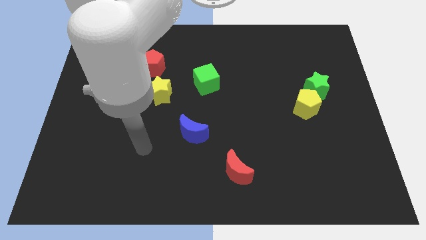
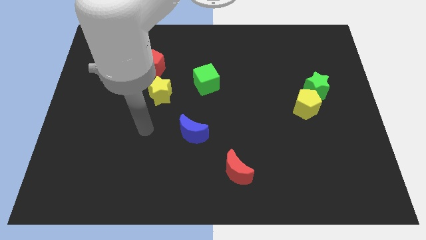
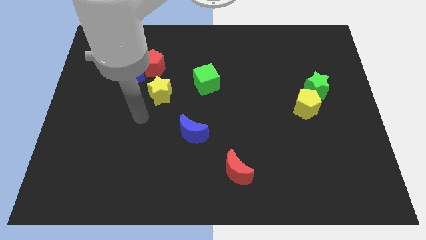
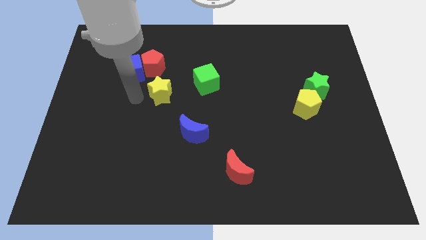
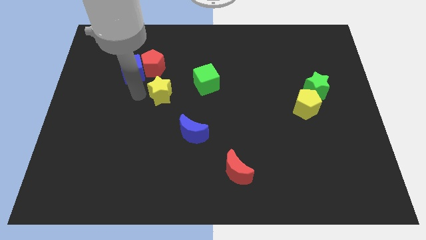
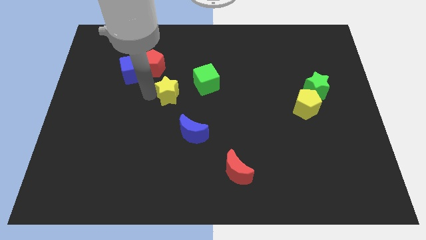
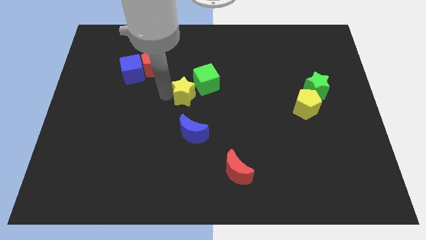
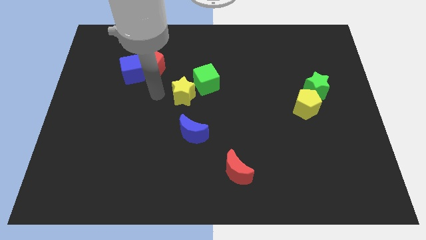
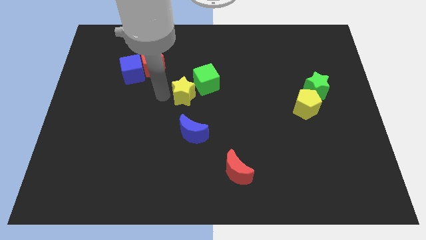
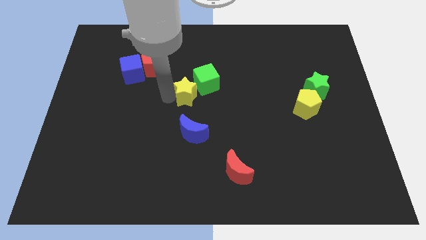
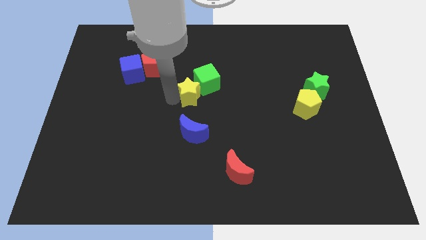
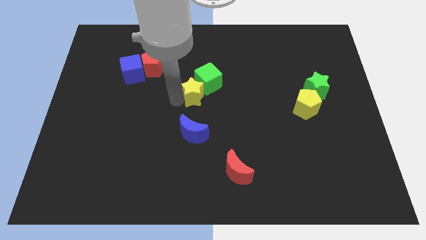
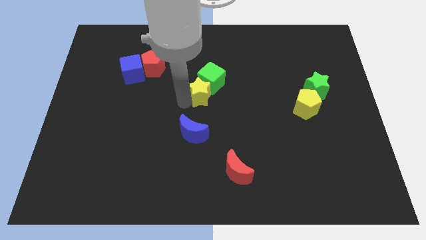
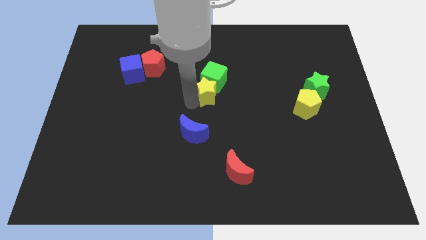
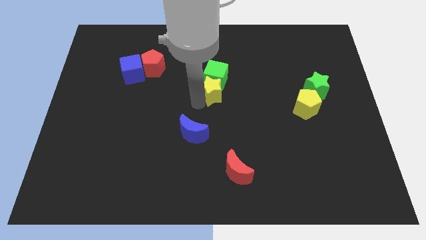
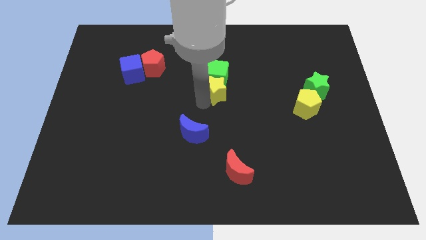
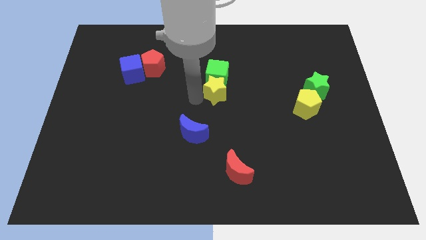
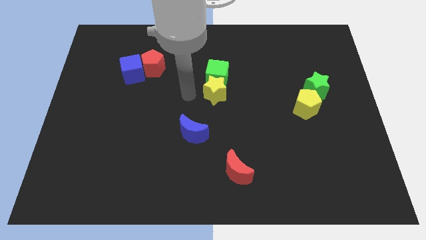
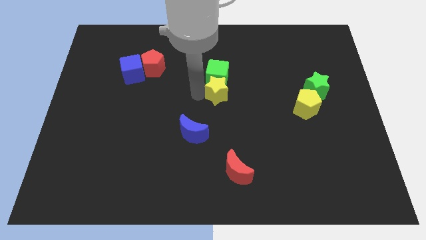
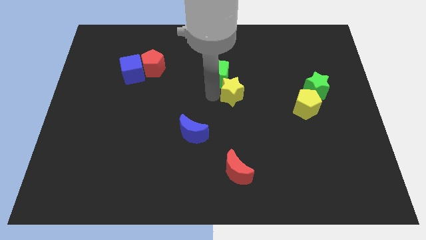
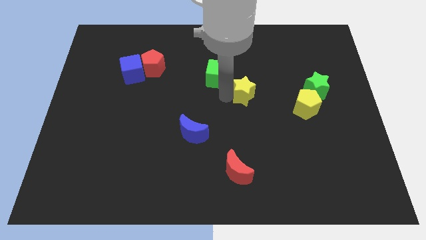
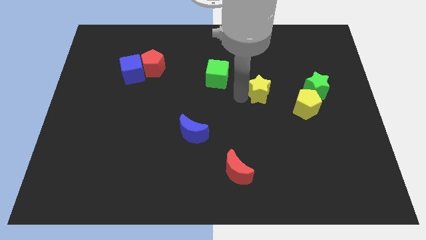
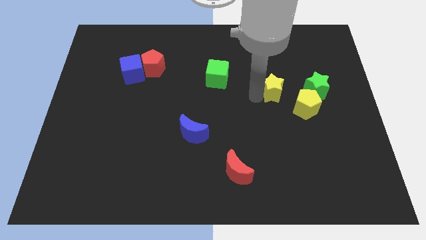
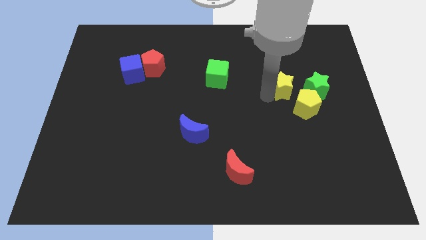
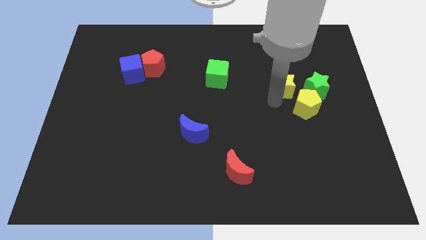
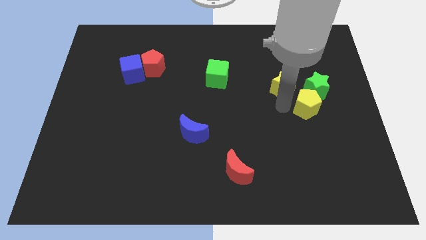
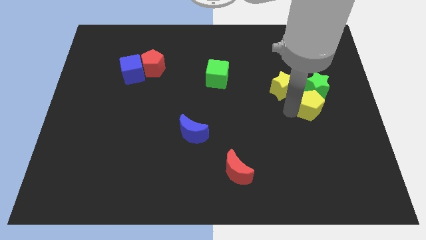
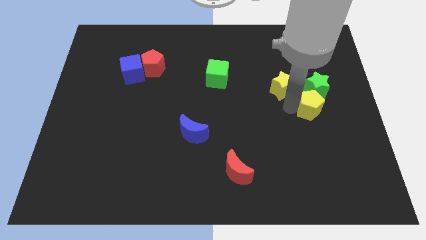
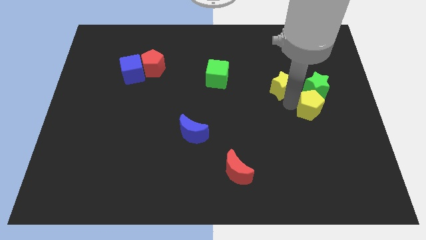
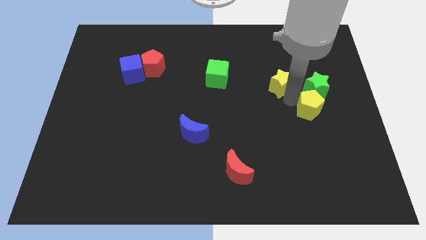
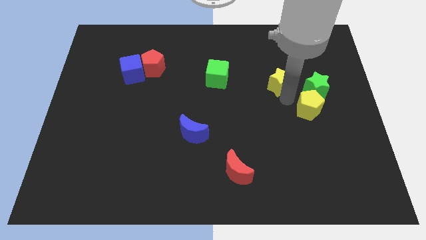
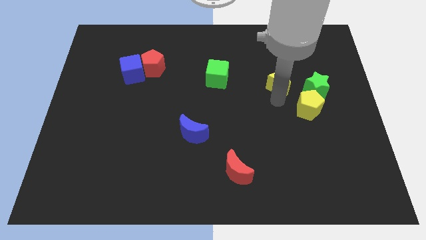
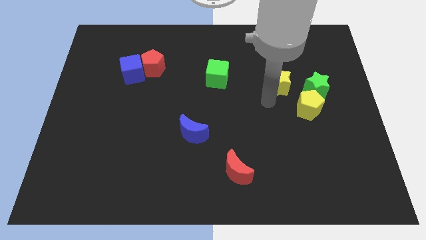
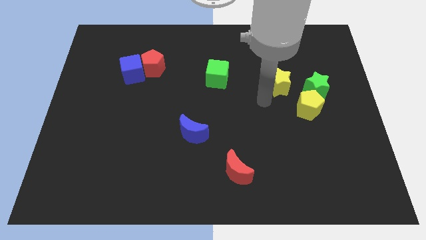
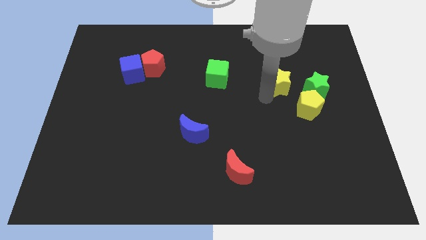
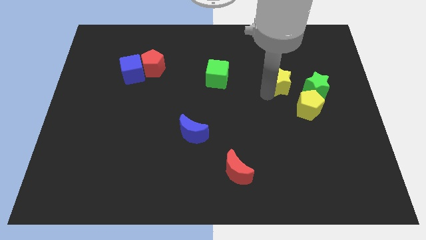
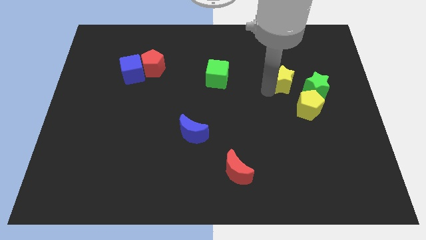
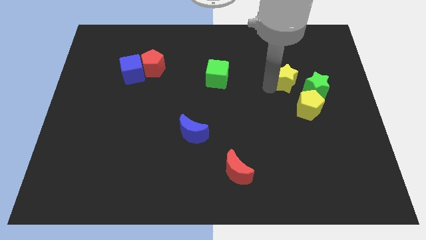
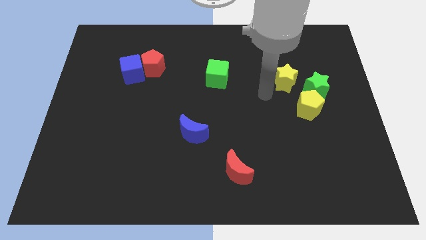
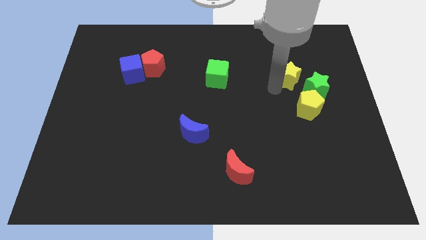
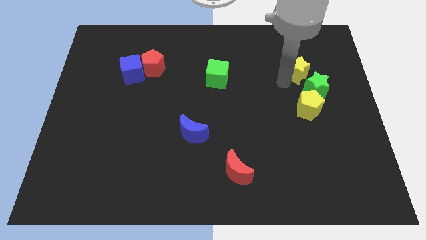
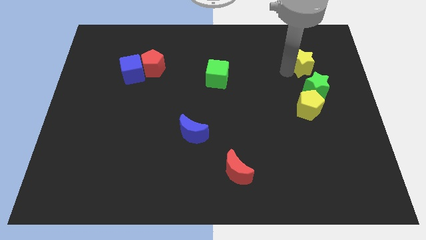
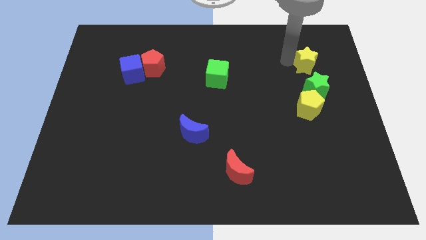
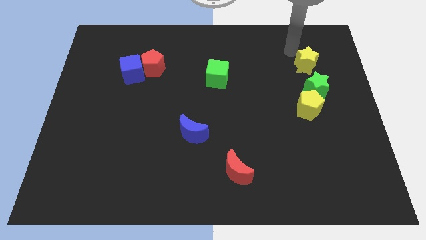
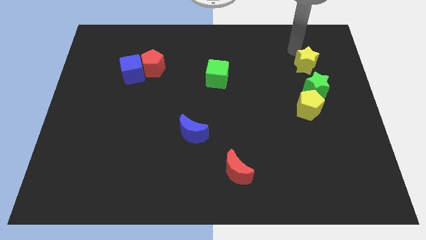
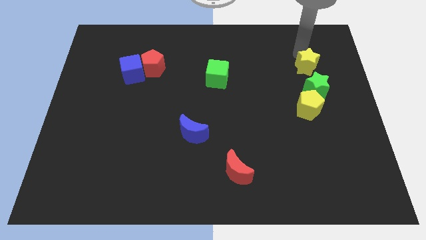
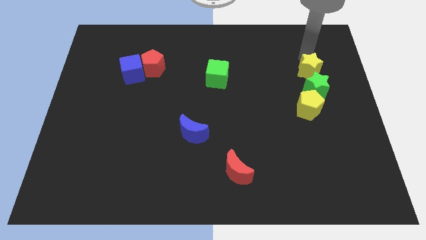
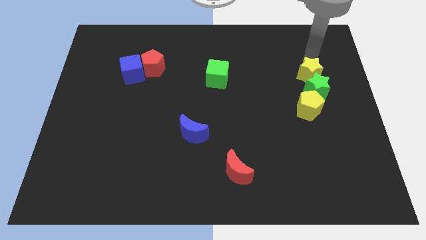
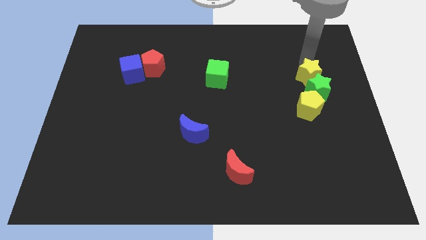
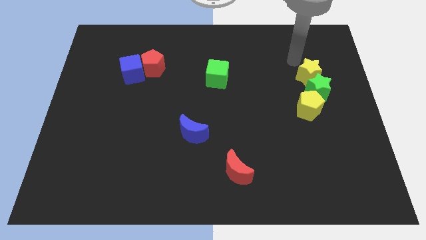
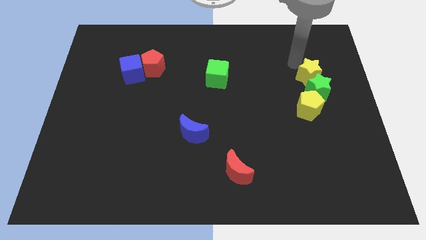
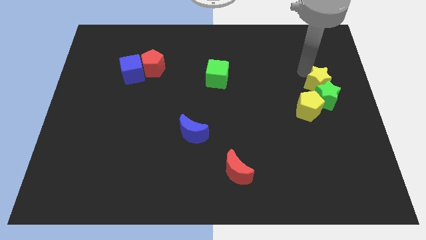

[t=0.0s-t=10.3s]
put the yellow star to the top right side of the yellow pentagon

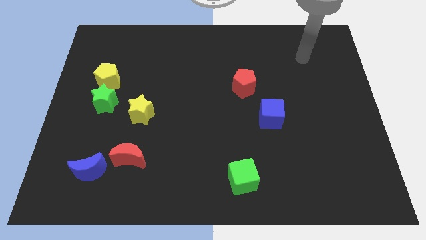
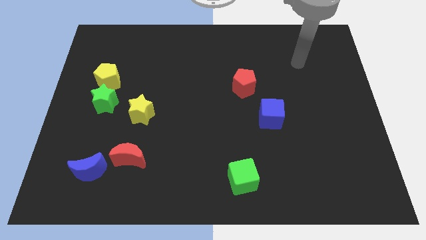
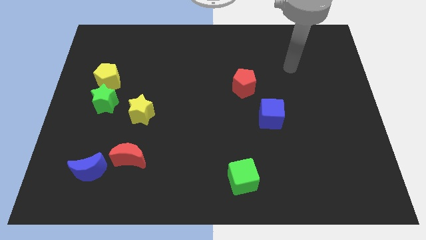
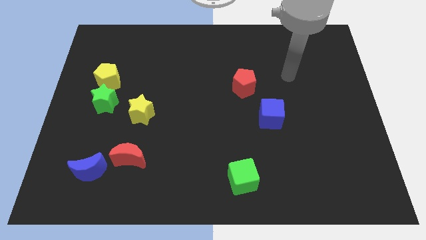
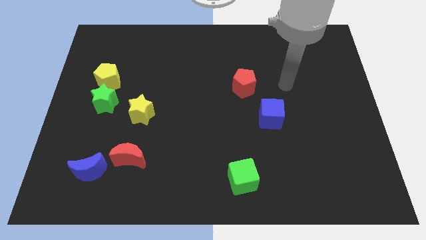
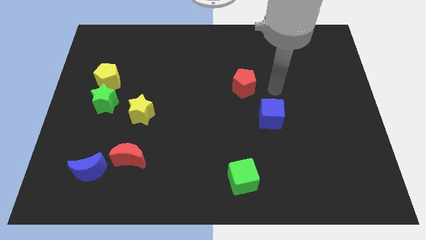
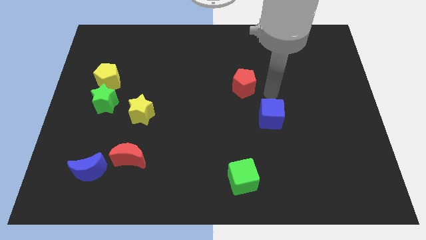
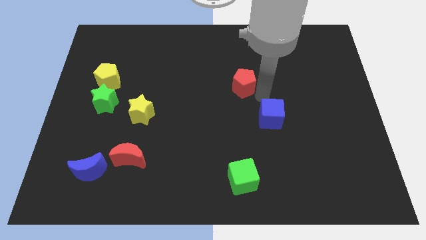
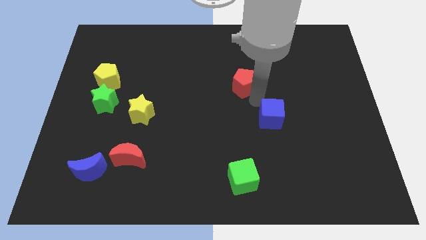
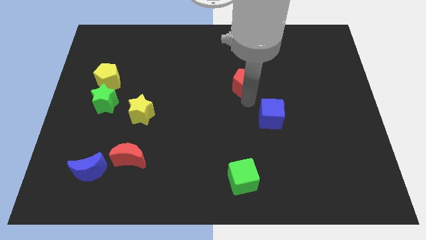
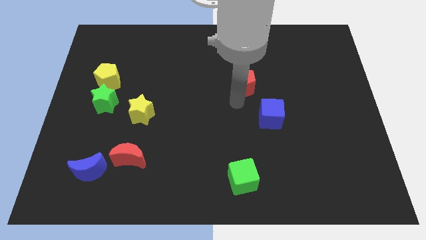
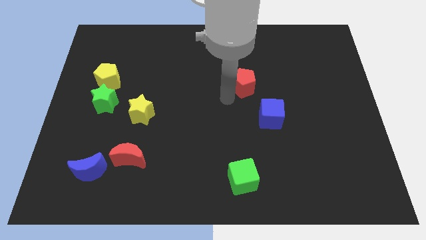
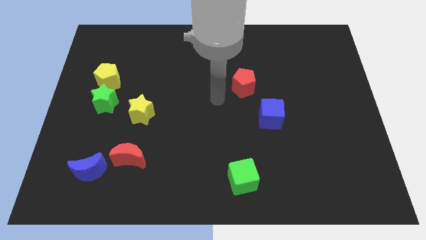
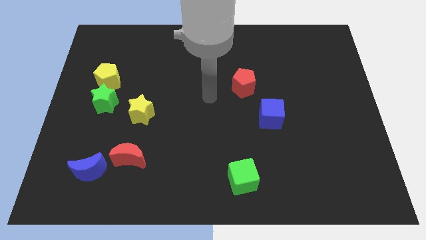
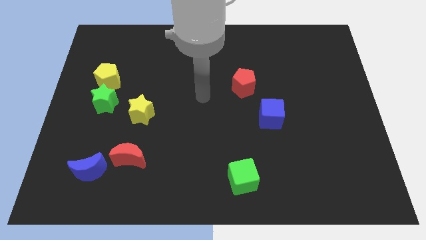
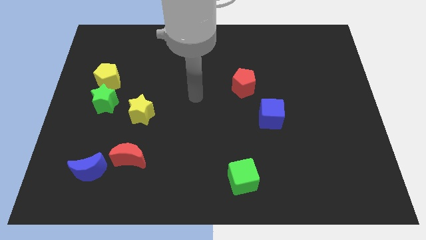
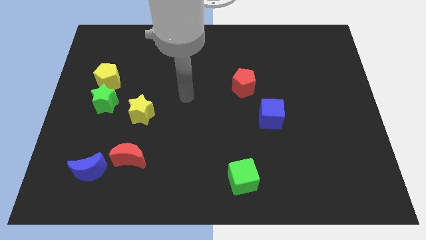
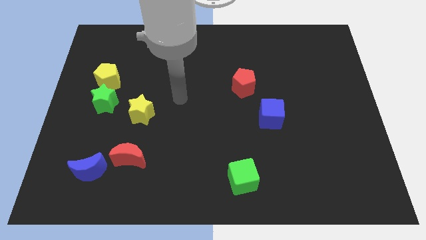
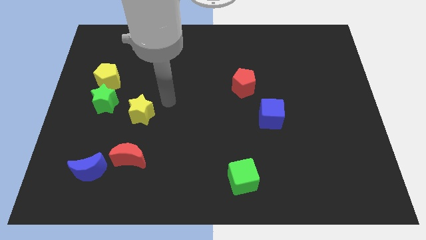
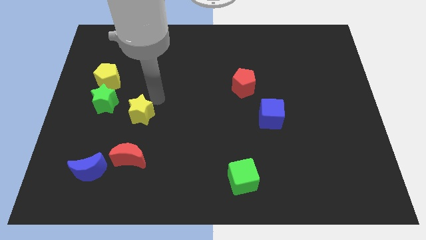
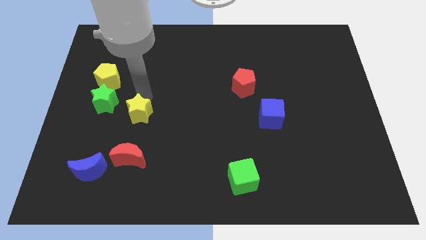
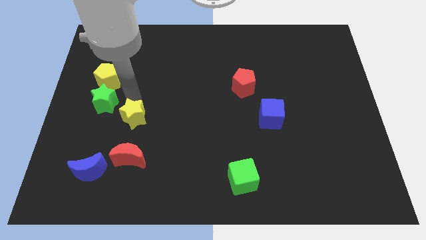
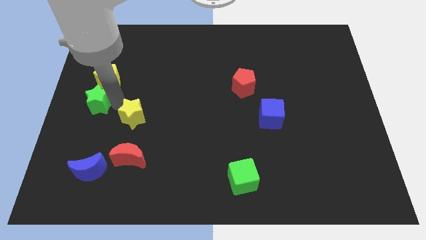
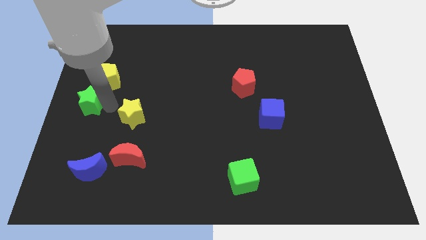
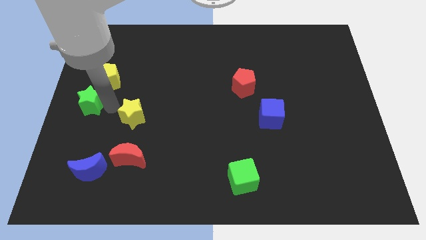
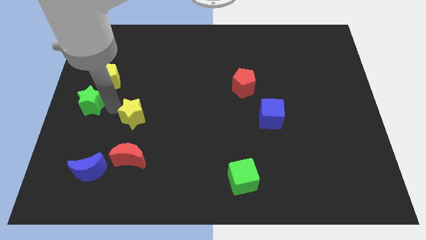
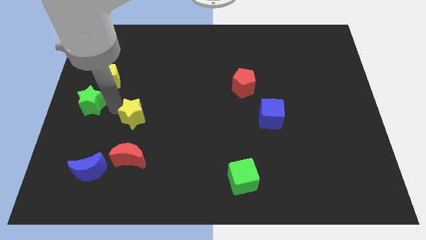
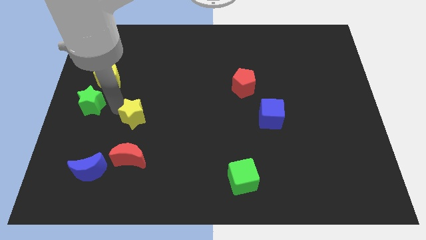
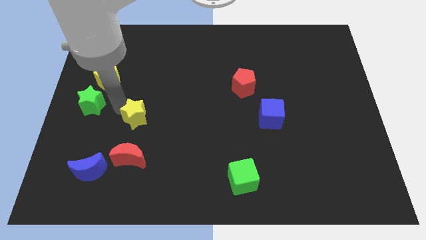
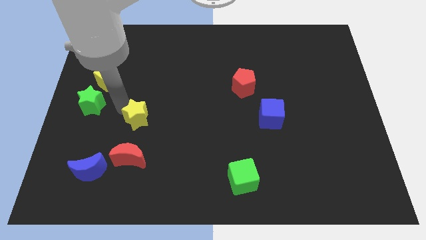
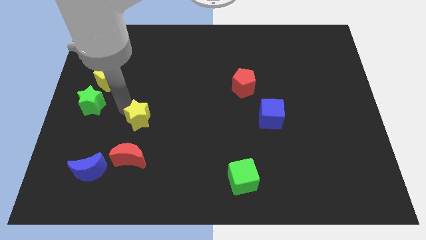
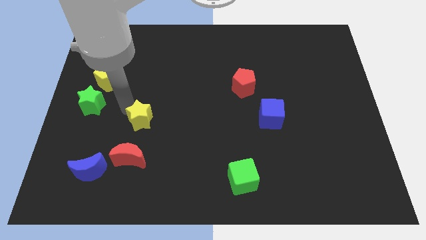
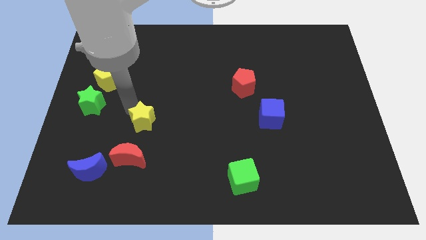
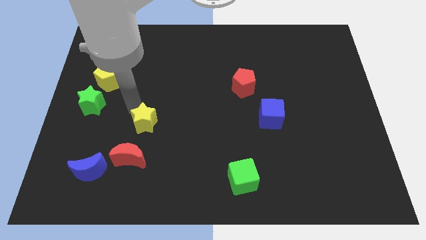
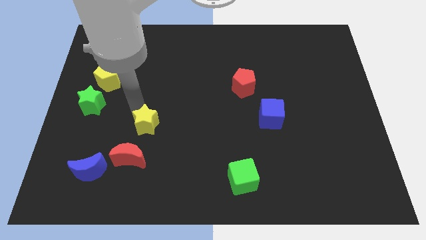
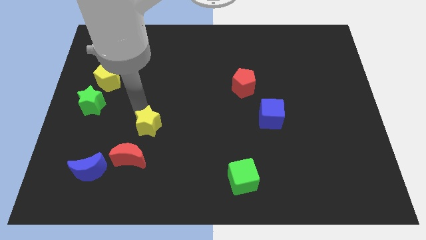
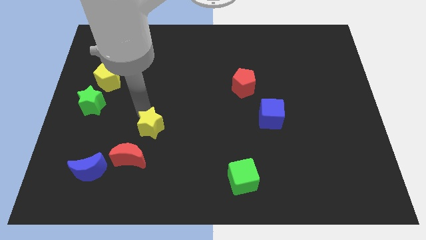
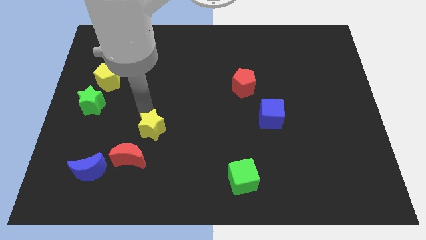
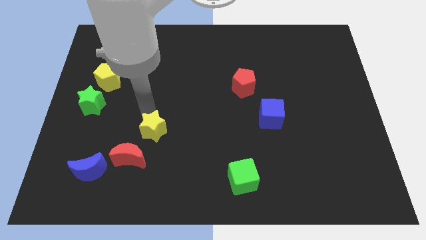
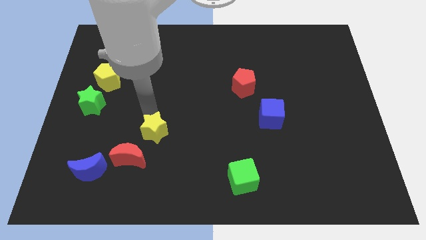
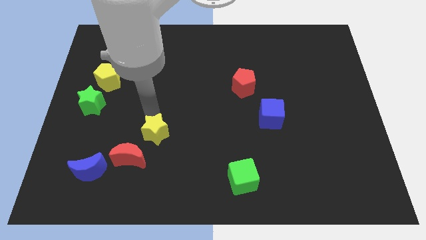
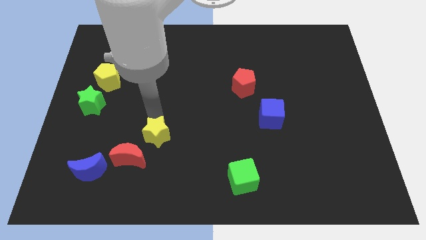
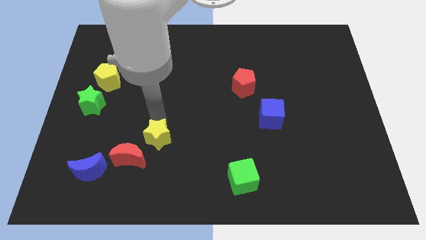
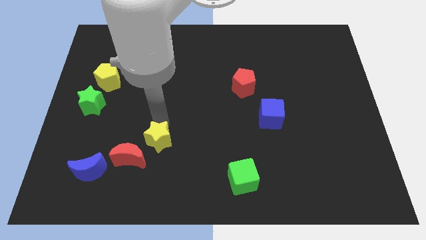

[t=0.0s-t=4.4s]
slide the yellow star to the right side of the red moon
